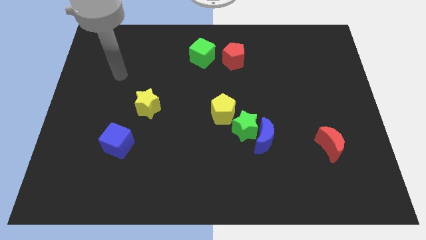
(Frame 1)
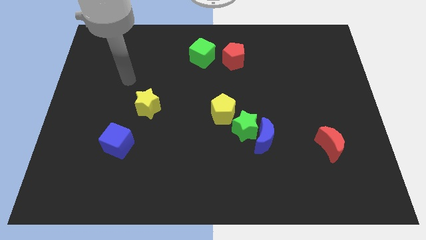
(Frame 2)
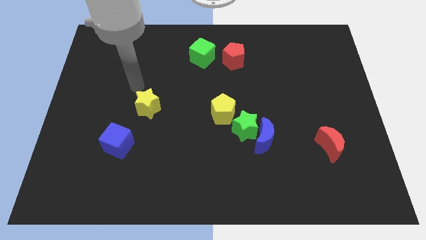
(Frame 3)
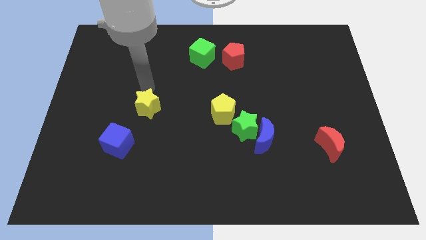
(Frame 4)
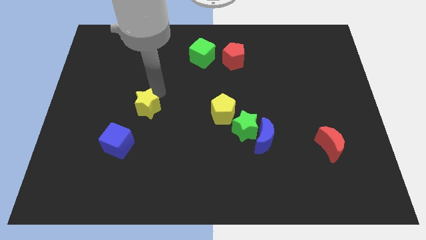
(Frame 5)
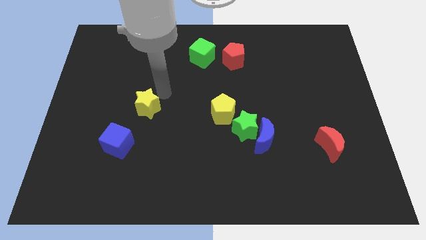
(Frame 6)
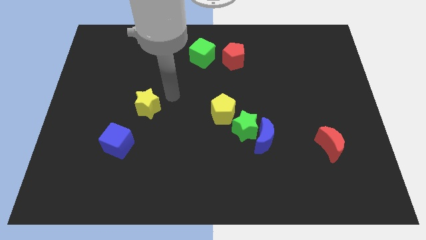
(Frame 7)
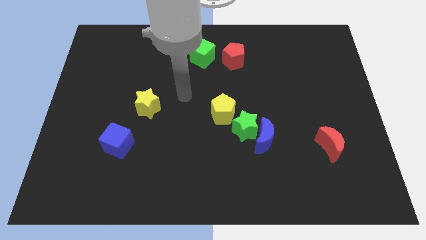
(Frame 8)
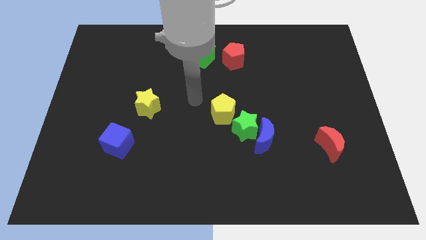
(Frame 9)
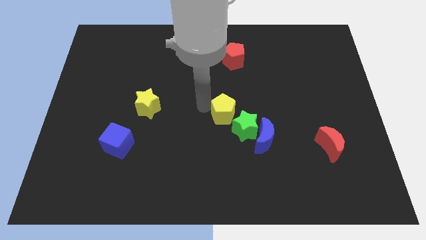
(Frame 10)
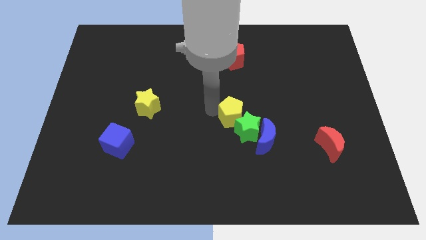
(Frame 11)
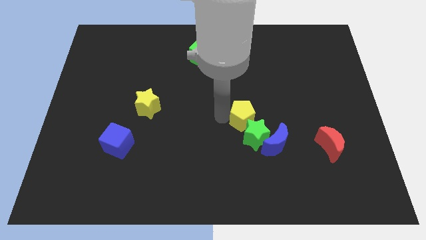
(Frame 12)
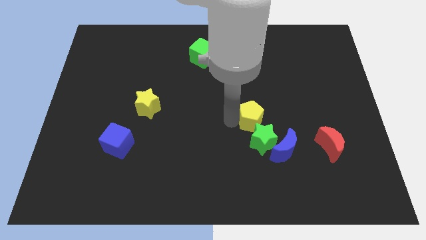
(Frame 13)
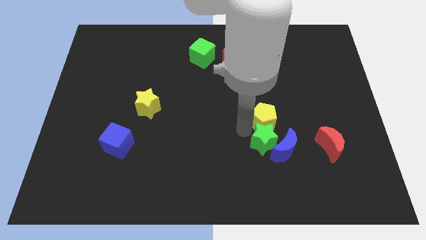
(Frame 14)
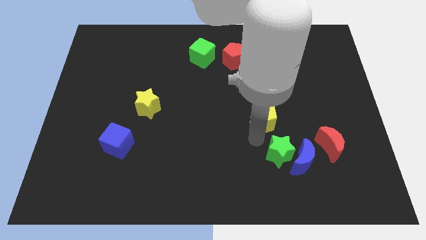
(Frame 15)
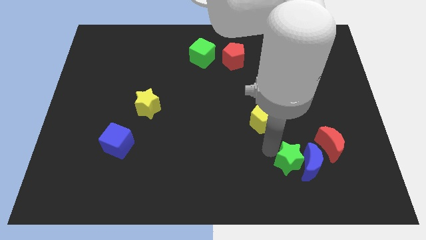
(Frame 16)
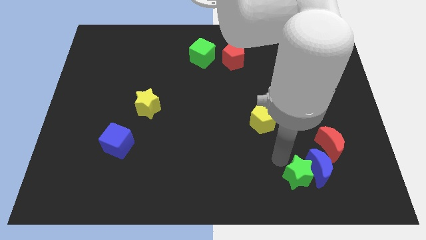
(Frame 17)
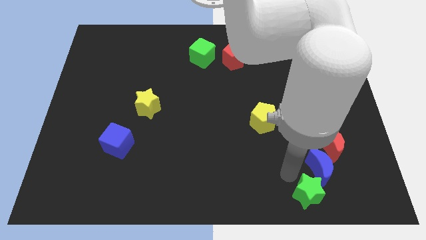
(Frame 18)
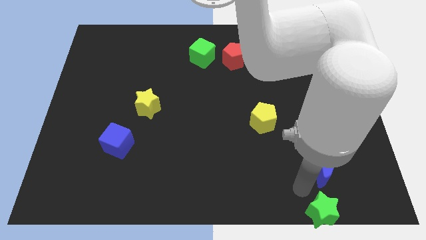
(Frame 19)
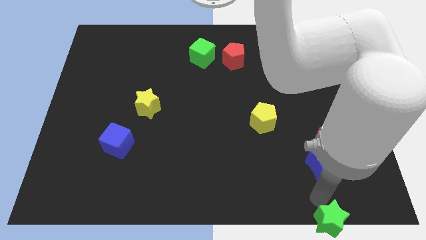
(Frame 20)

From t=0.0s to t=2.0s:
separate the blue moon from the green star

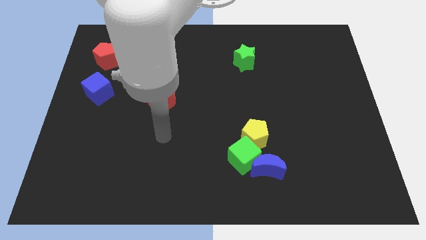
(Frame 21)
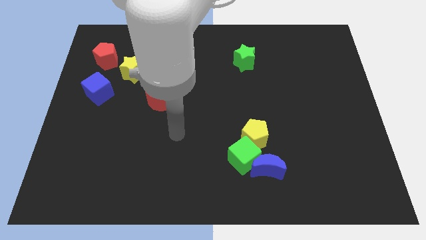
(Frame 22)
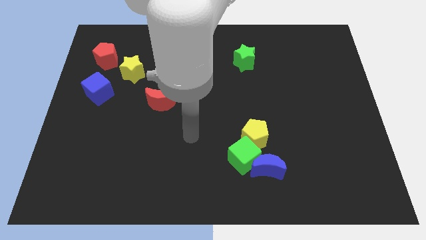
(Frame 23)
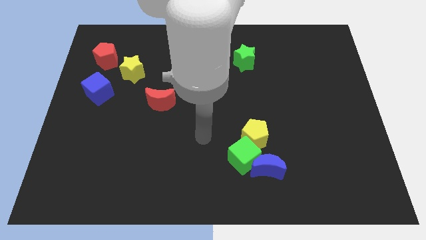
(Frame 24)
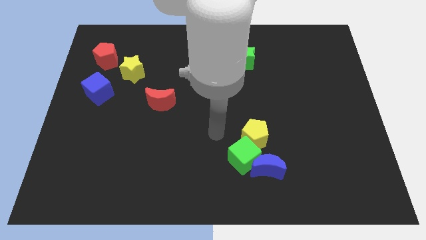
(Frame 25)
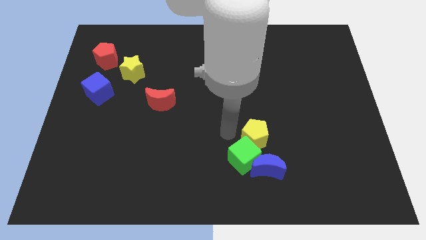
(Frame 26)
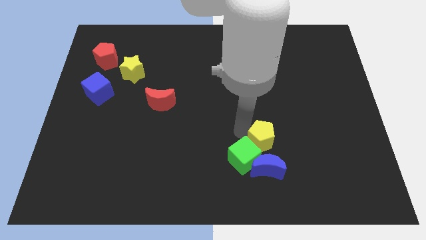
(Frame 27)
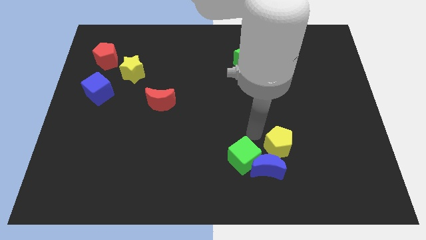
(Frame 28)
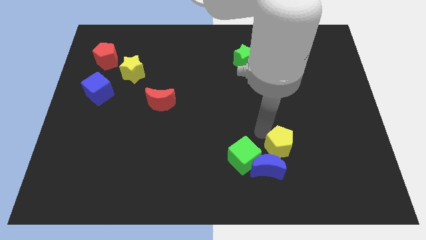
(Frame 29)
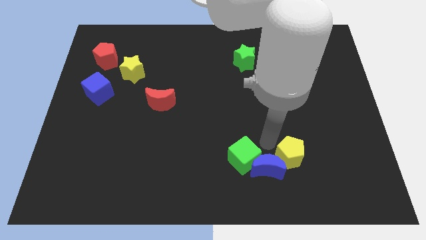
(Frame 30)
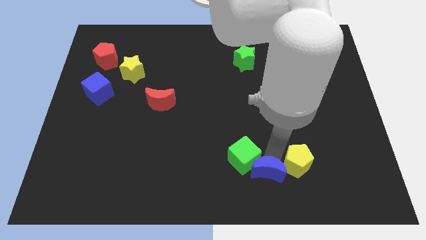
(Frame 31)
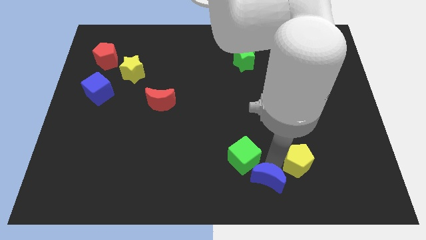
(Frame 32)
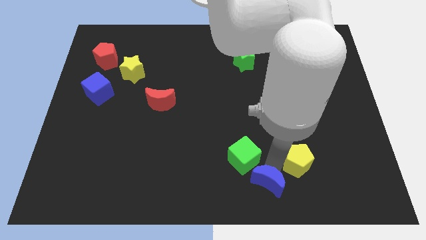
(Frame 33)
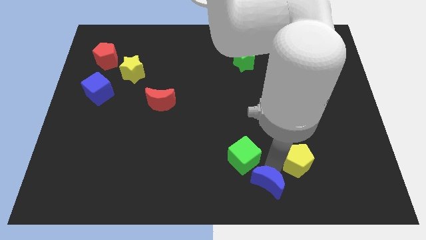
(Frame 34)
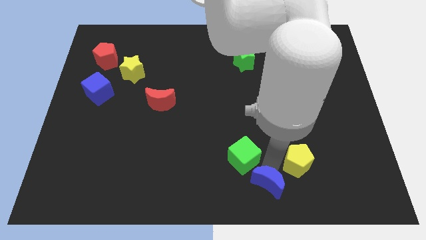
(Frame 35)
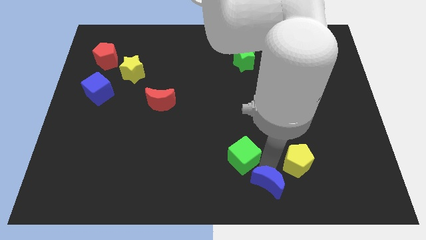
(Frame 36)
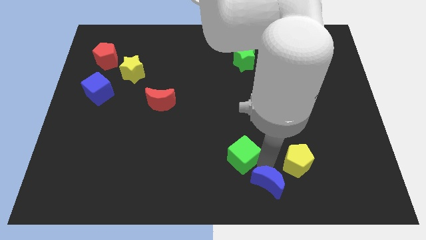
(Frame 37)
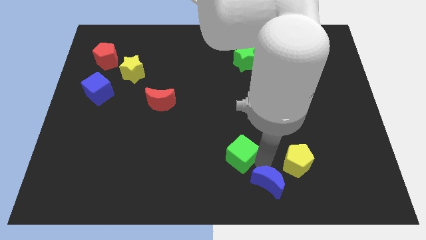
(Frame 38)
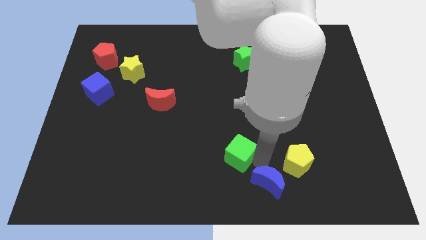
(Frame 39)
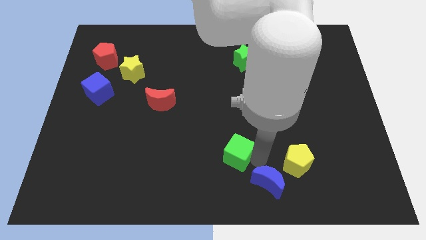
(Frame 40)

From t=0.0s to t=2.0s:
separate the green cube from the blue moon and yellow pentagon

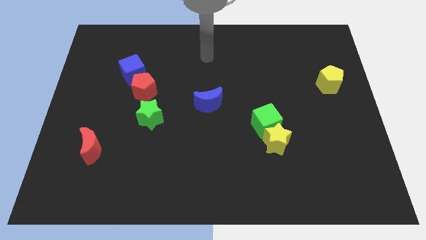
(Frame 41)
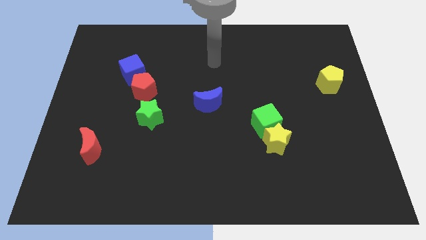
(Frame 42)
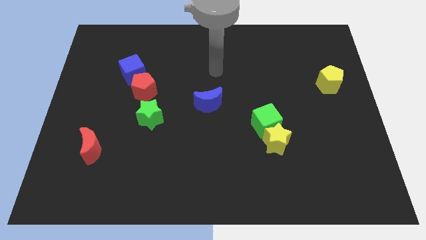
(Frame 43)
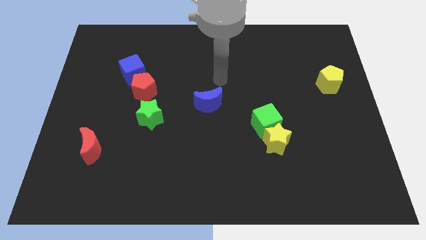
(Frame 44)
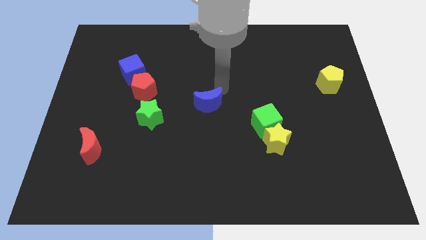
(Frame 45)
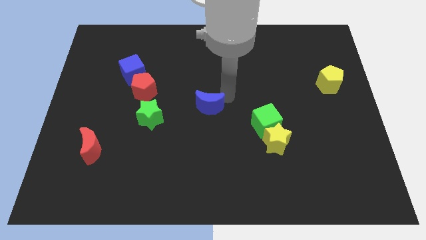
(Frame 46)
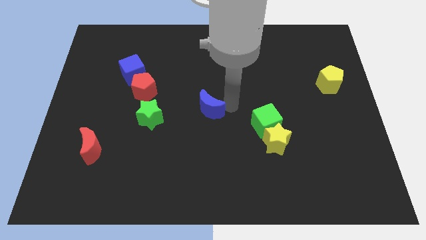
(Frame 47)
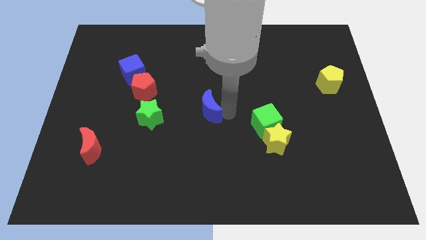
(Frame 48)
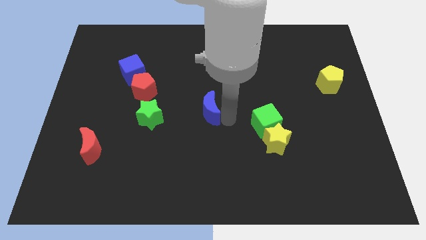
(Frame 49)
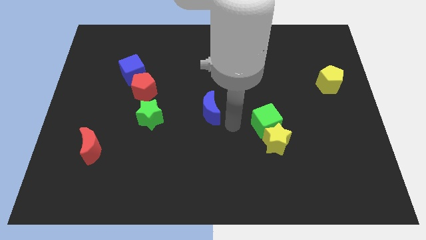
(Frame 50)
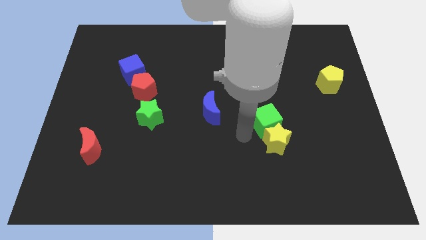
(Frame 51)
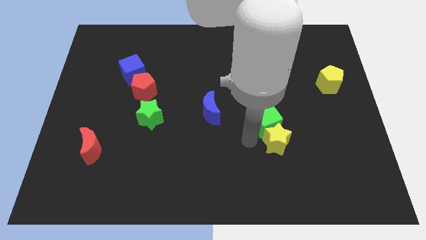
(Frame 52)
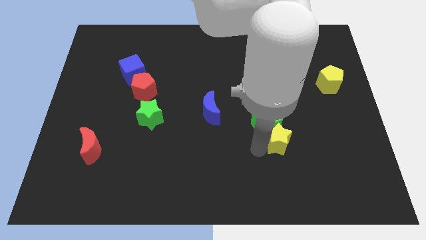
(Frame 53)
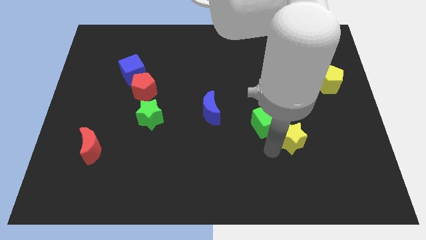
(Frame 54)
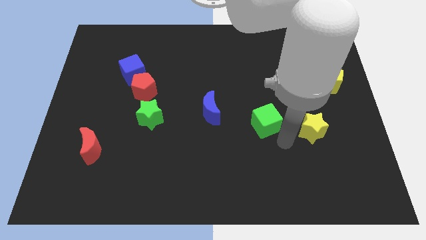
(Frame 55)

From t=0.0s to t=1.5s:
pull the green cube apart from the yellow star

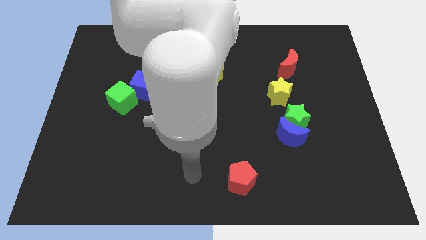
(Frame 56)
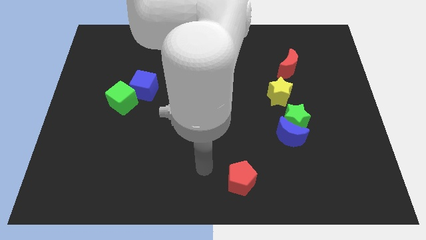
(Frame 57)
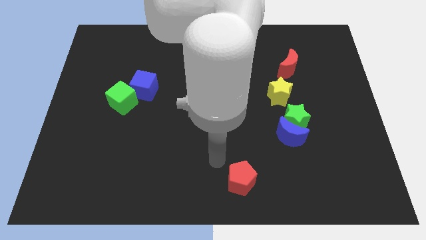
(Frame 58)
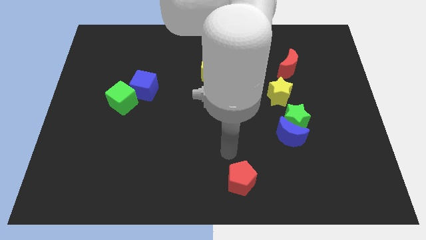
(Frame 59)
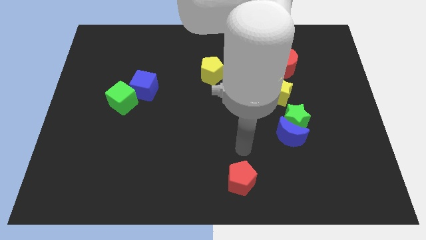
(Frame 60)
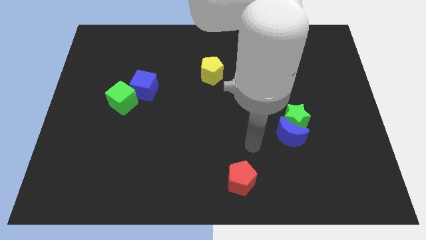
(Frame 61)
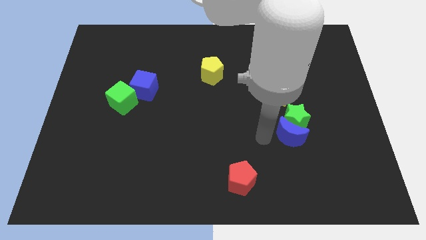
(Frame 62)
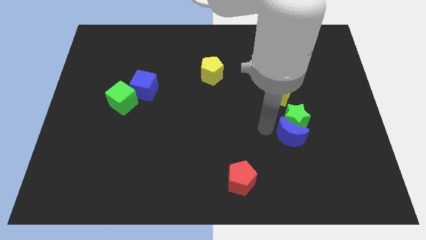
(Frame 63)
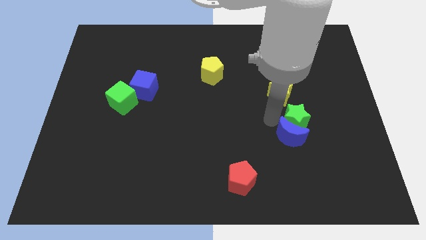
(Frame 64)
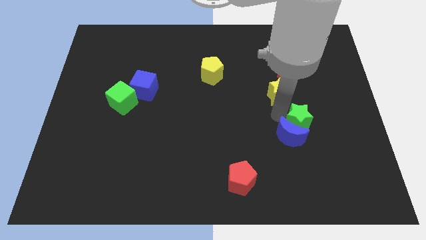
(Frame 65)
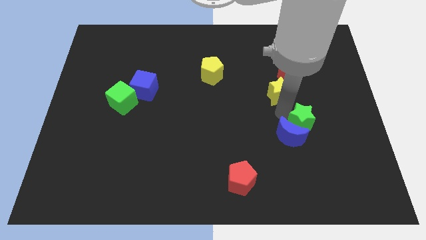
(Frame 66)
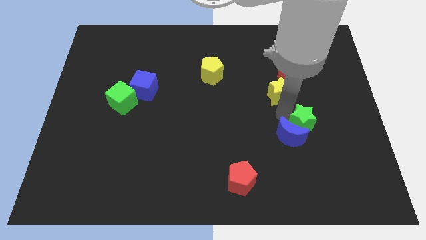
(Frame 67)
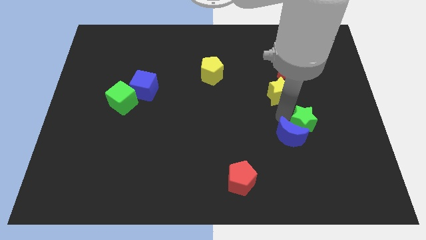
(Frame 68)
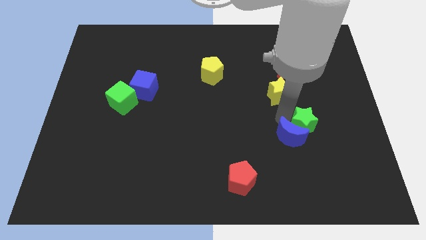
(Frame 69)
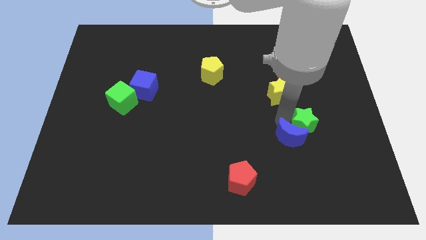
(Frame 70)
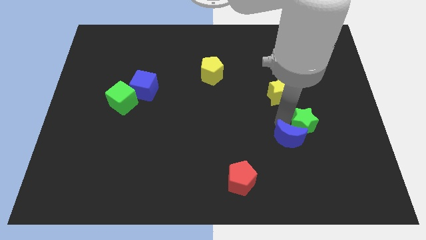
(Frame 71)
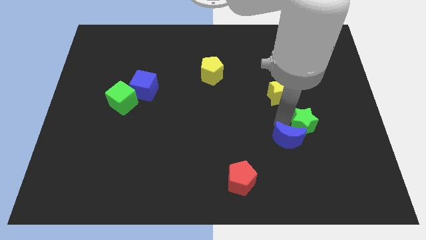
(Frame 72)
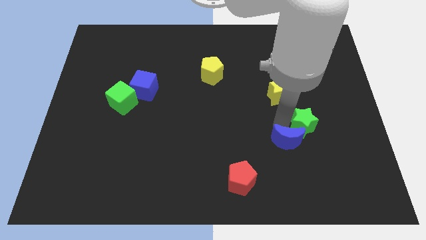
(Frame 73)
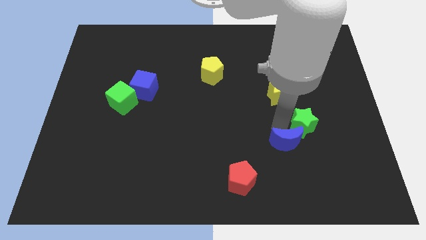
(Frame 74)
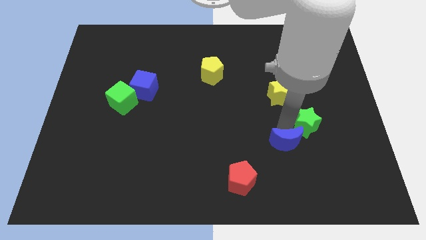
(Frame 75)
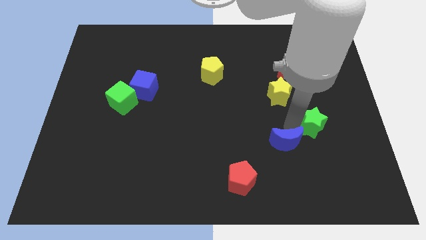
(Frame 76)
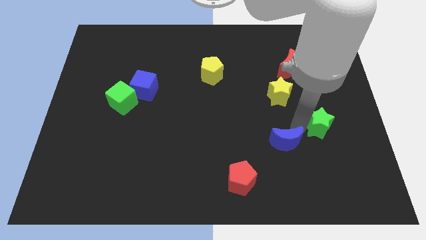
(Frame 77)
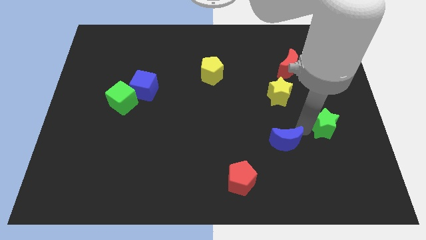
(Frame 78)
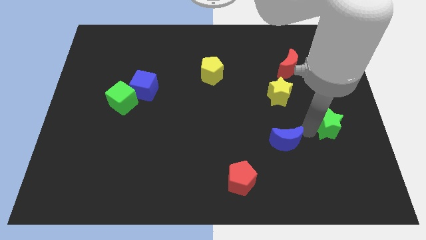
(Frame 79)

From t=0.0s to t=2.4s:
move the blue moon away from the green star

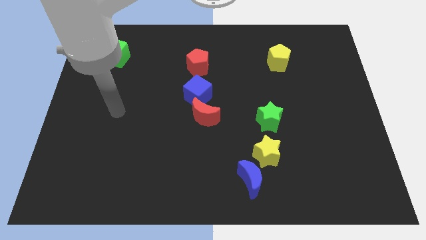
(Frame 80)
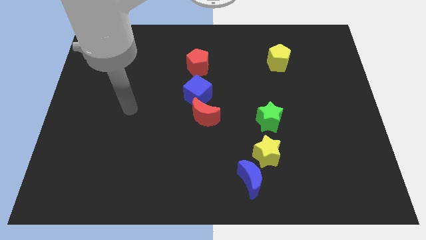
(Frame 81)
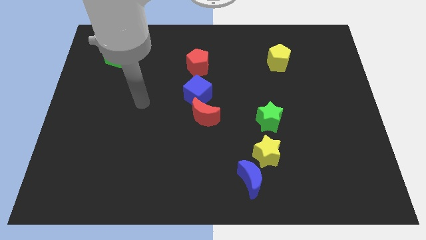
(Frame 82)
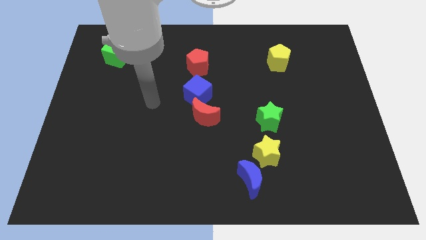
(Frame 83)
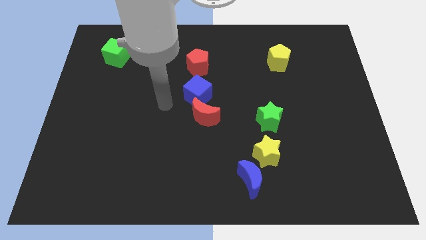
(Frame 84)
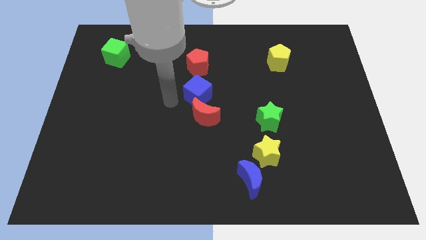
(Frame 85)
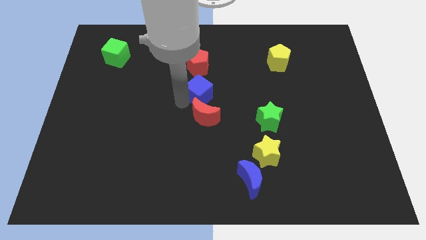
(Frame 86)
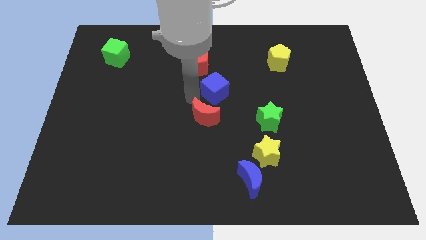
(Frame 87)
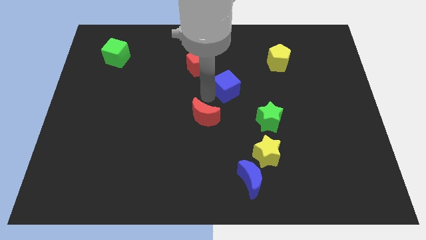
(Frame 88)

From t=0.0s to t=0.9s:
move the red moon away from the blue cube

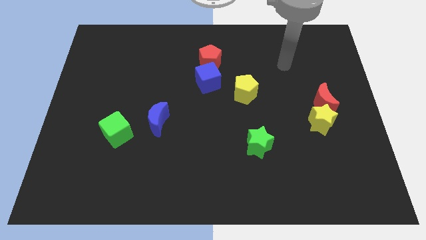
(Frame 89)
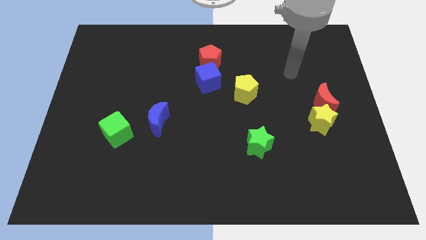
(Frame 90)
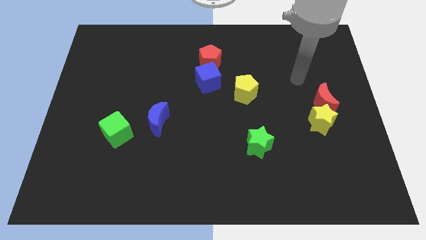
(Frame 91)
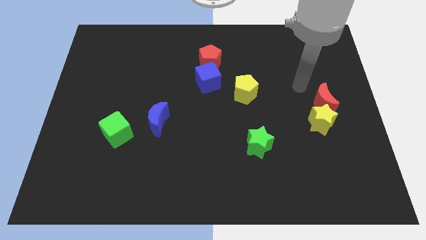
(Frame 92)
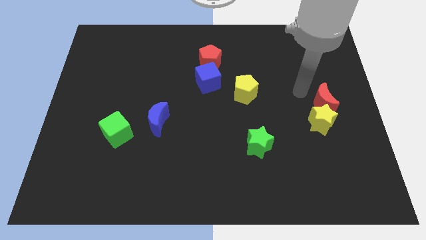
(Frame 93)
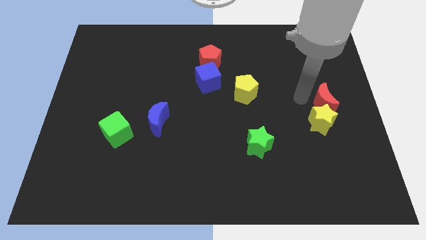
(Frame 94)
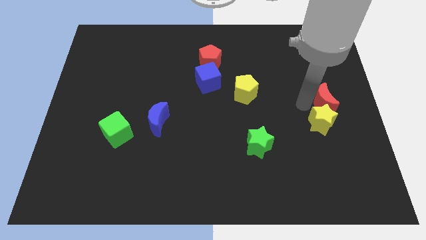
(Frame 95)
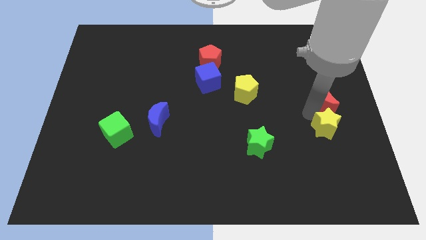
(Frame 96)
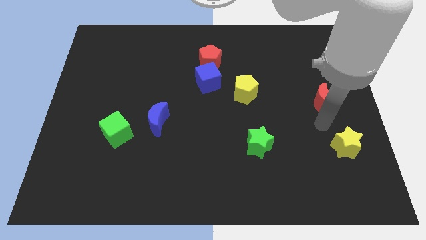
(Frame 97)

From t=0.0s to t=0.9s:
separate the red moon from the yellow star
